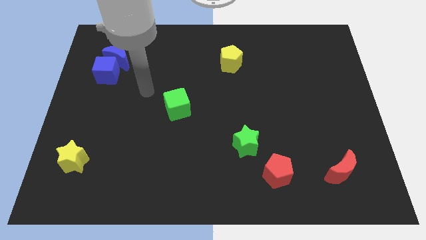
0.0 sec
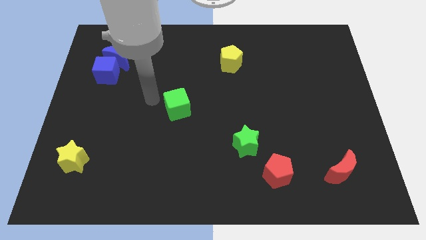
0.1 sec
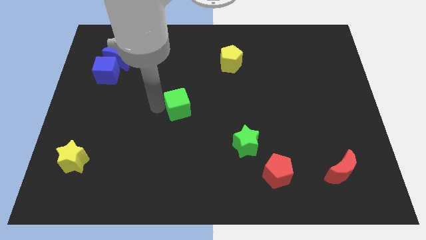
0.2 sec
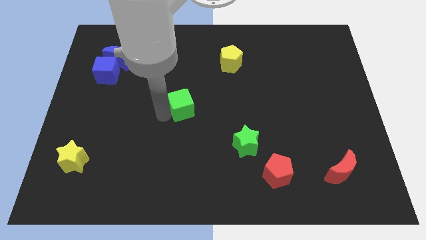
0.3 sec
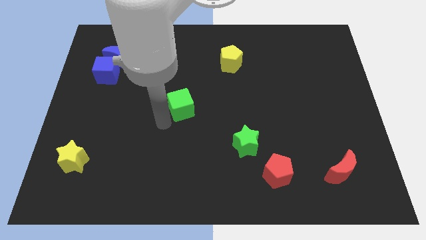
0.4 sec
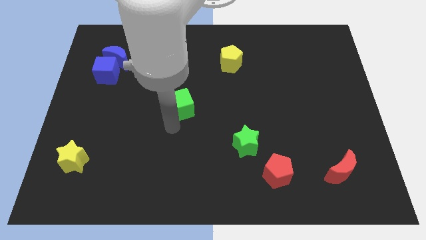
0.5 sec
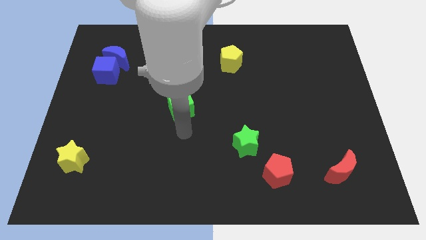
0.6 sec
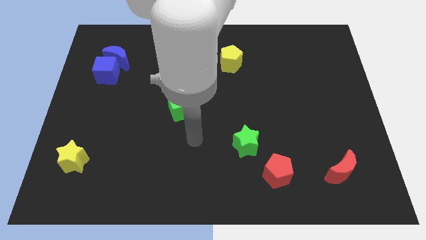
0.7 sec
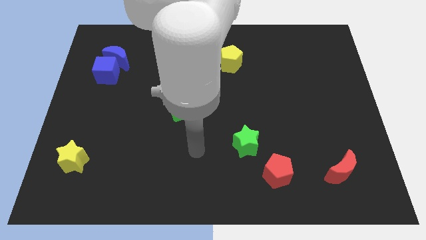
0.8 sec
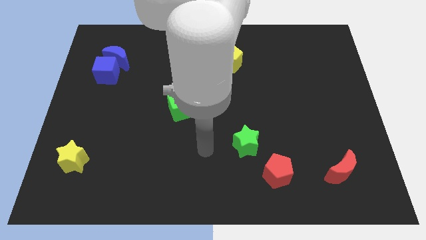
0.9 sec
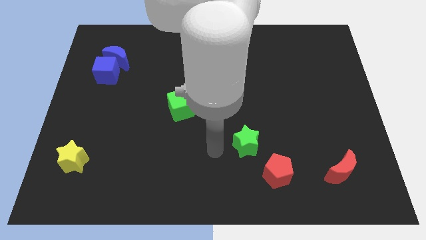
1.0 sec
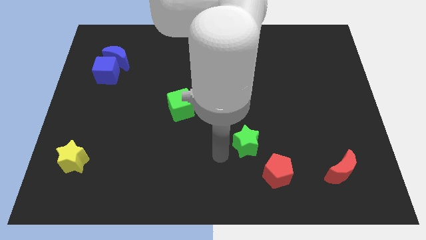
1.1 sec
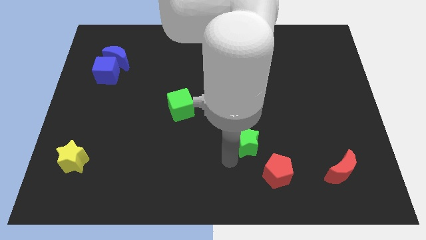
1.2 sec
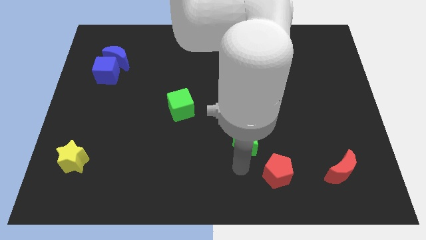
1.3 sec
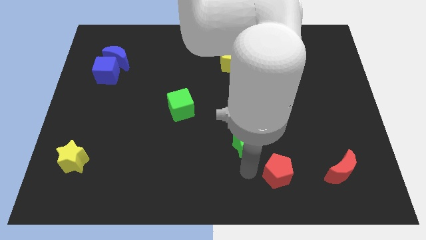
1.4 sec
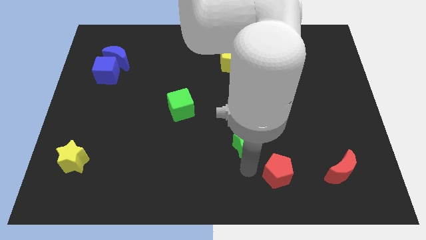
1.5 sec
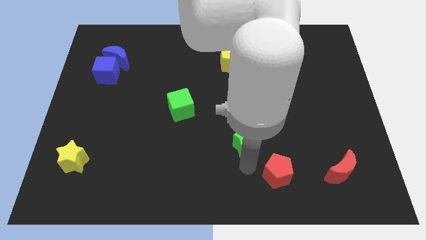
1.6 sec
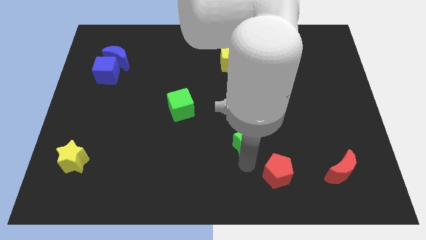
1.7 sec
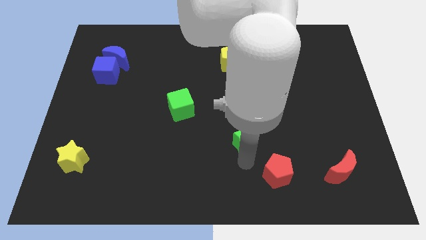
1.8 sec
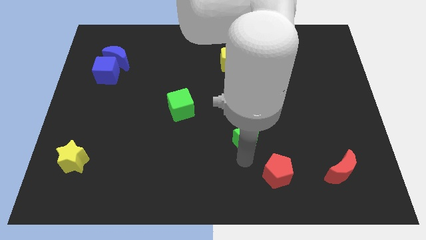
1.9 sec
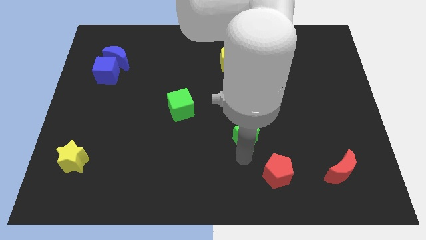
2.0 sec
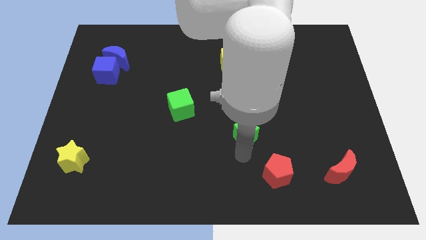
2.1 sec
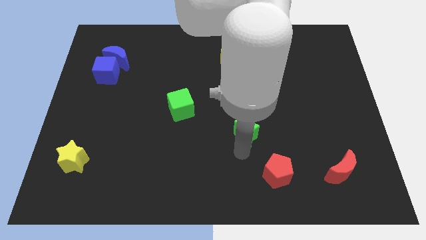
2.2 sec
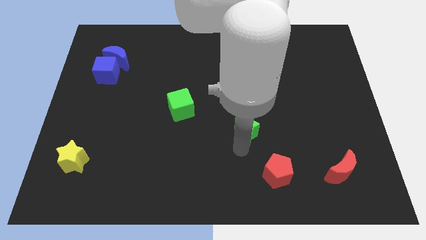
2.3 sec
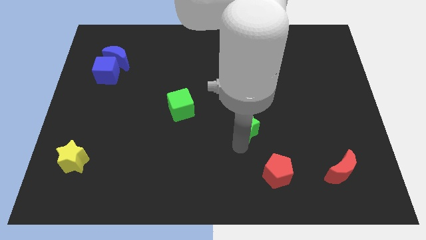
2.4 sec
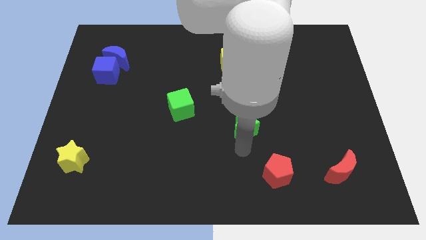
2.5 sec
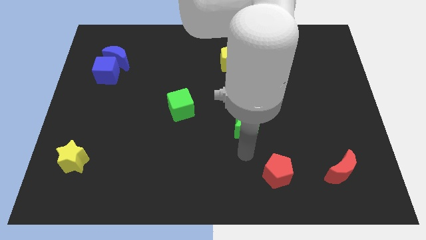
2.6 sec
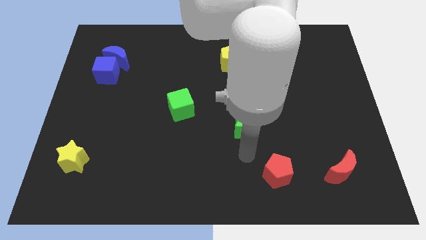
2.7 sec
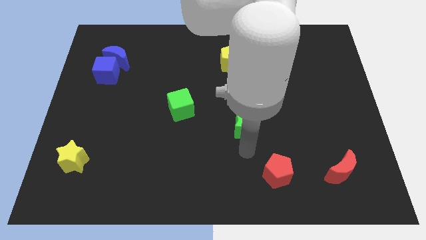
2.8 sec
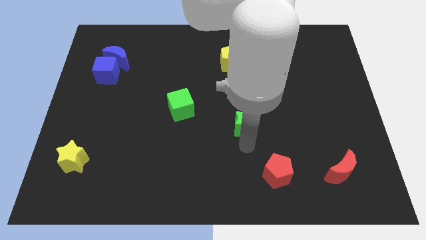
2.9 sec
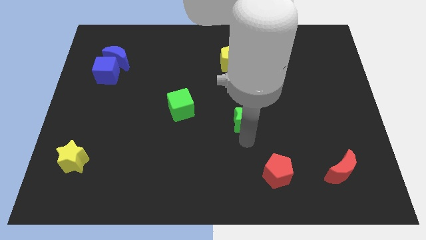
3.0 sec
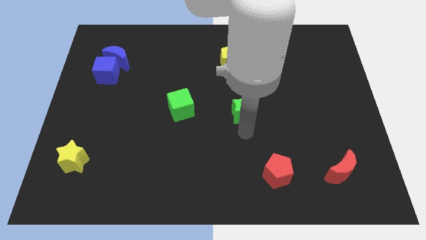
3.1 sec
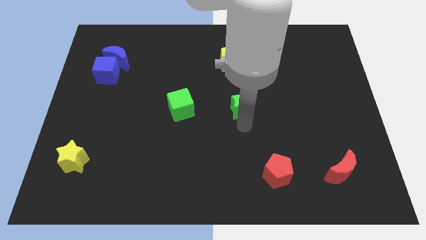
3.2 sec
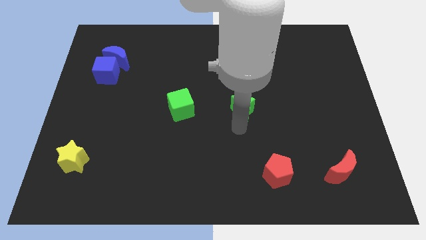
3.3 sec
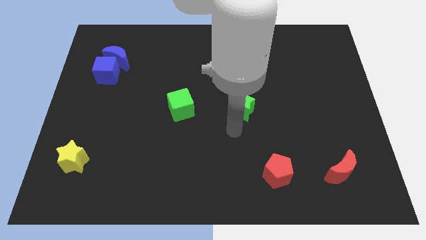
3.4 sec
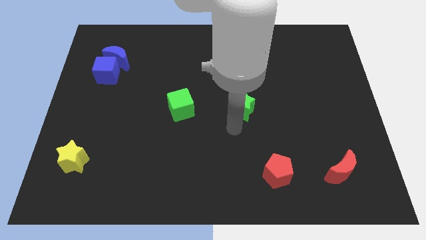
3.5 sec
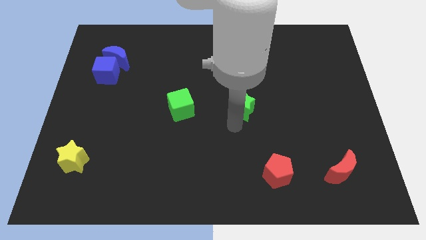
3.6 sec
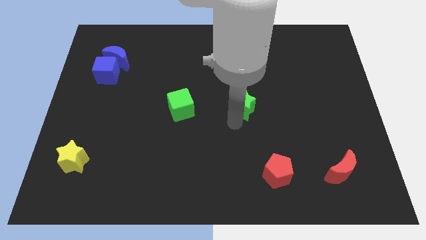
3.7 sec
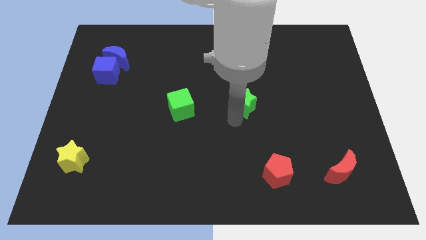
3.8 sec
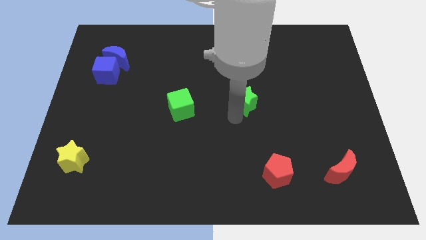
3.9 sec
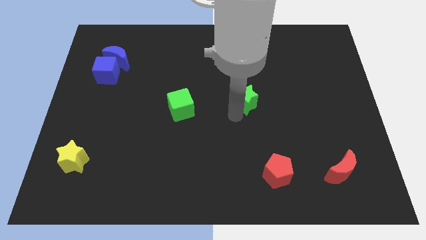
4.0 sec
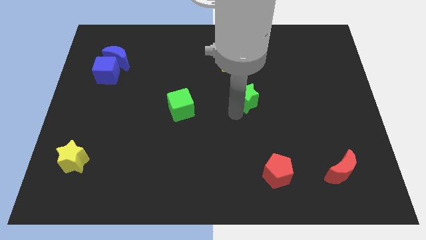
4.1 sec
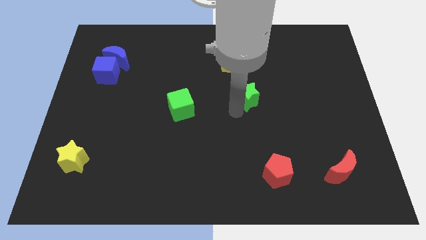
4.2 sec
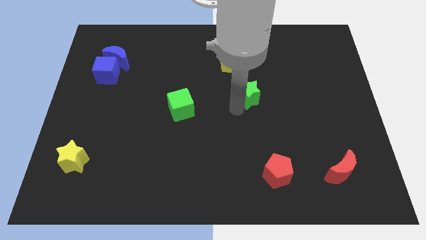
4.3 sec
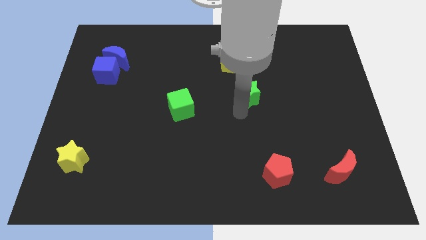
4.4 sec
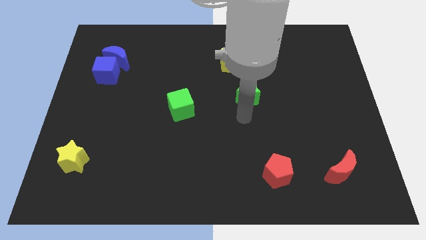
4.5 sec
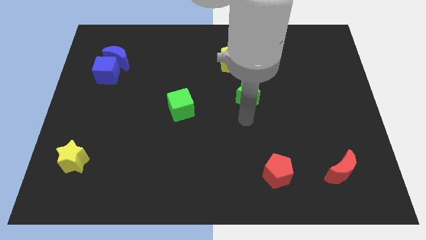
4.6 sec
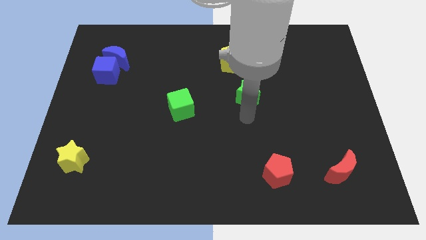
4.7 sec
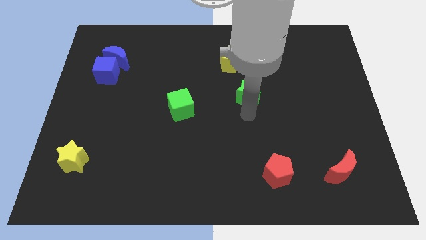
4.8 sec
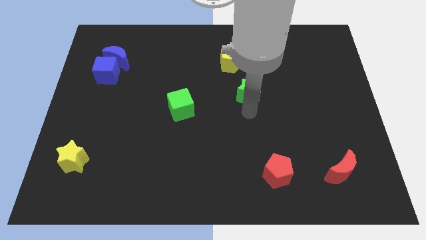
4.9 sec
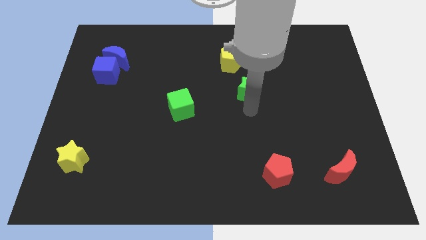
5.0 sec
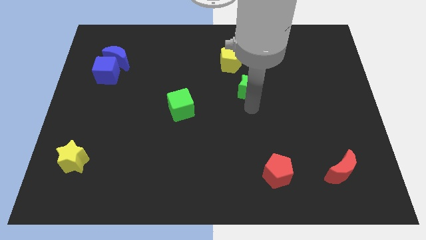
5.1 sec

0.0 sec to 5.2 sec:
slide the green star diagonally down and to the right of the yellow pentagon

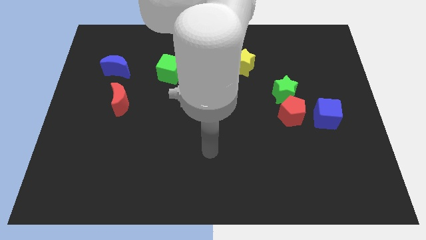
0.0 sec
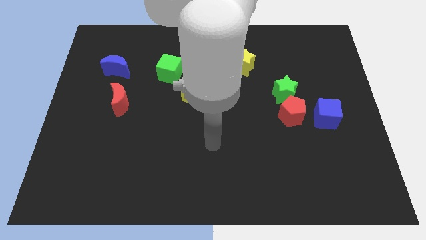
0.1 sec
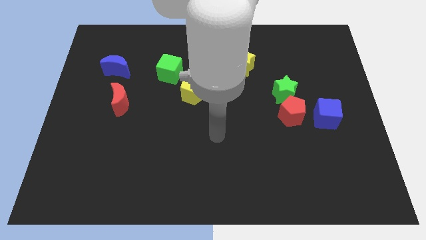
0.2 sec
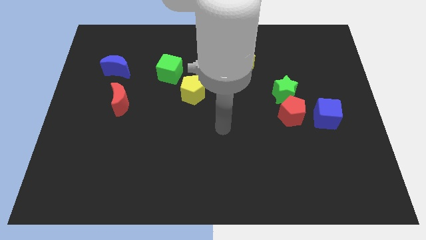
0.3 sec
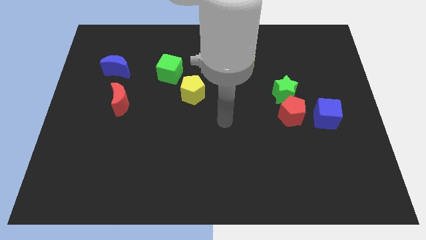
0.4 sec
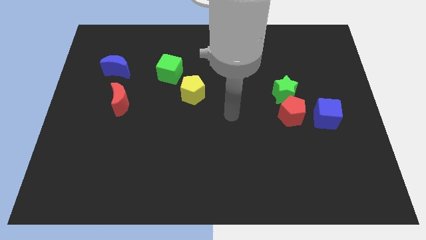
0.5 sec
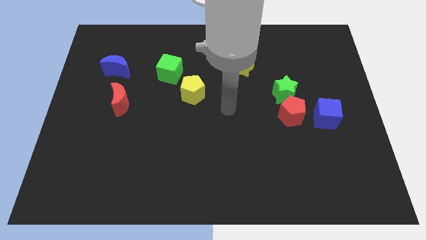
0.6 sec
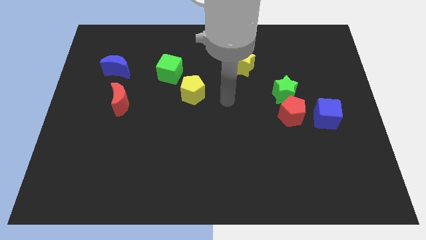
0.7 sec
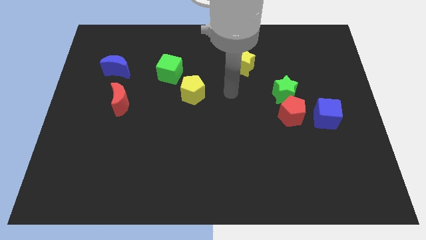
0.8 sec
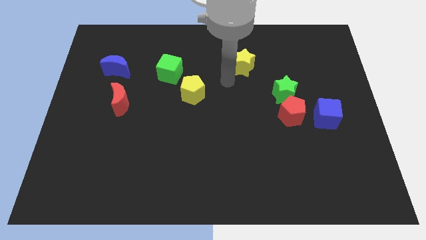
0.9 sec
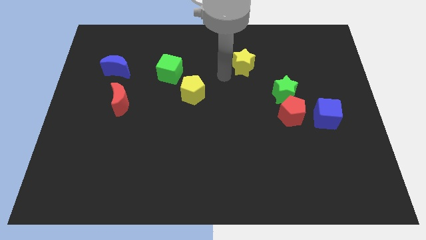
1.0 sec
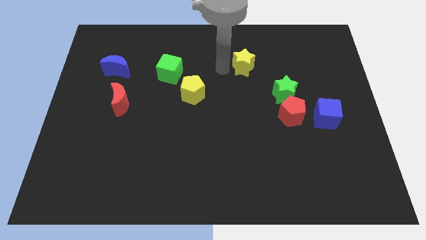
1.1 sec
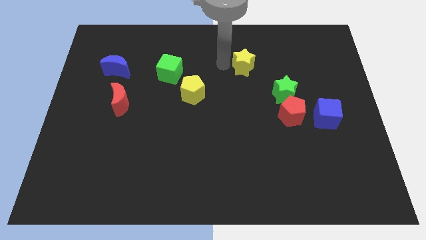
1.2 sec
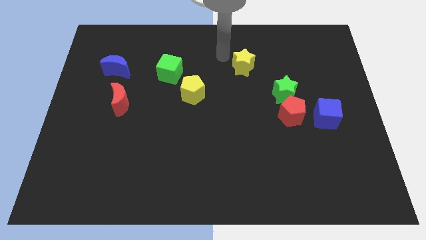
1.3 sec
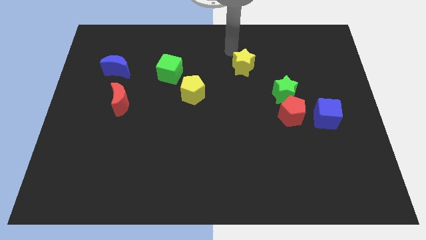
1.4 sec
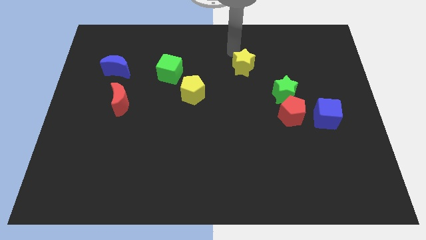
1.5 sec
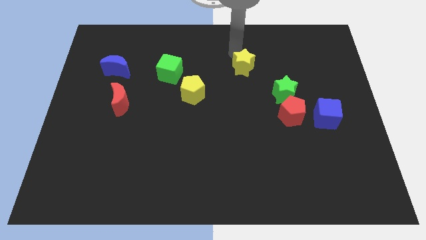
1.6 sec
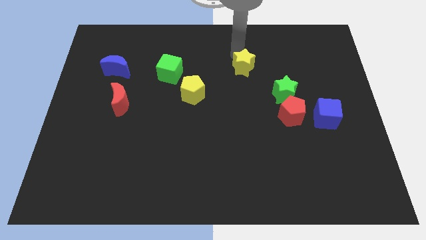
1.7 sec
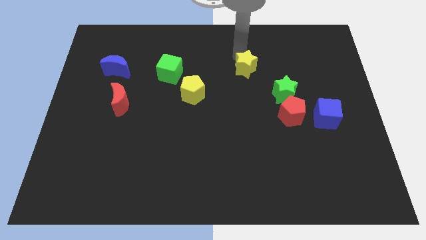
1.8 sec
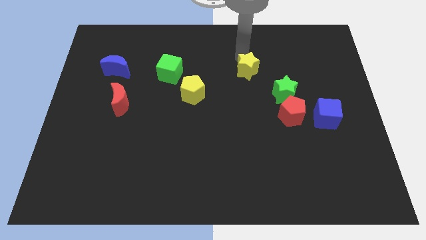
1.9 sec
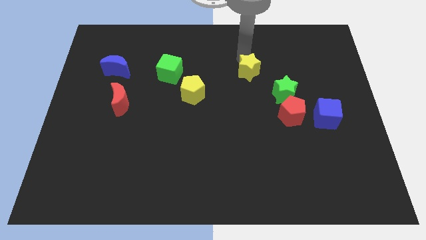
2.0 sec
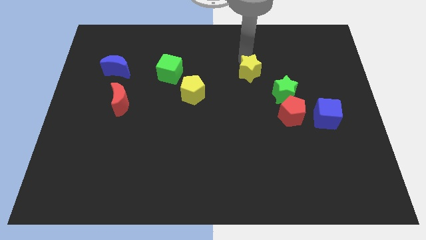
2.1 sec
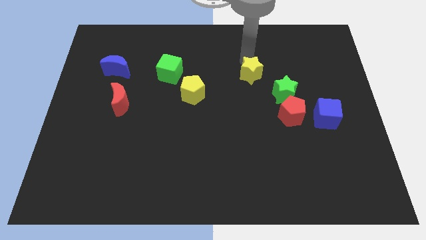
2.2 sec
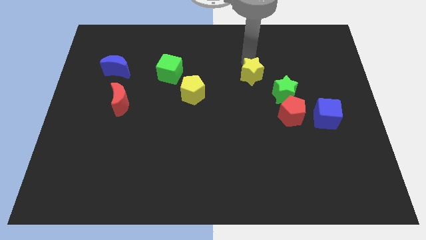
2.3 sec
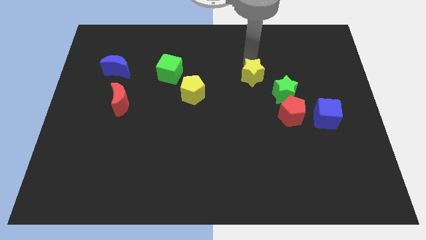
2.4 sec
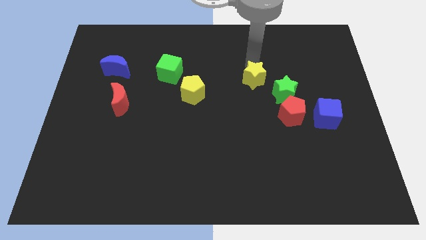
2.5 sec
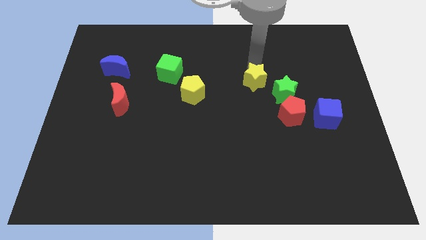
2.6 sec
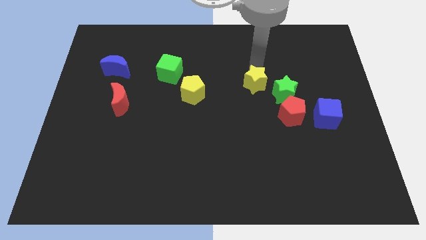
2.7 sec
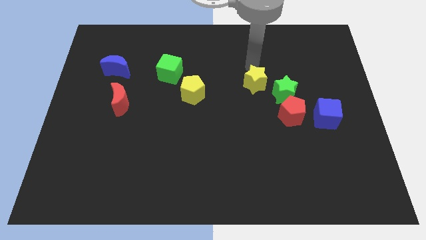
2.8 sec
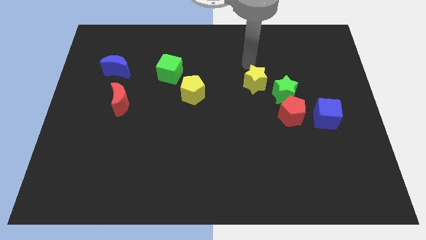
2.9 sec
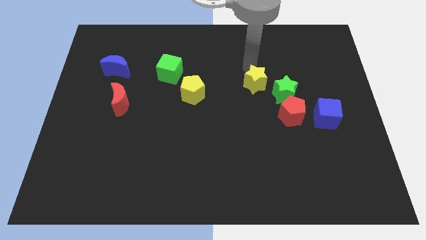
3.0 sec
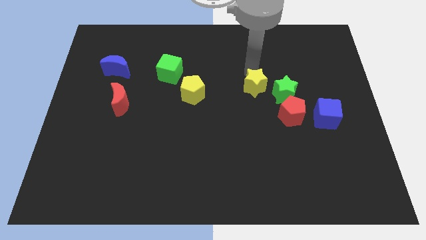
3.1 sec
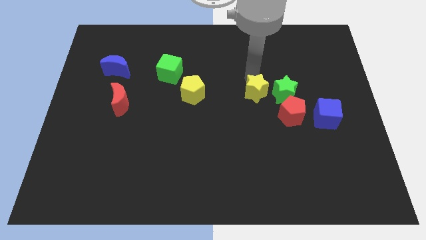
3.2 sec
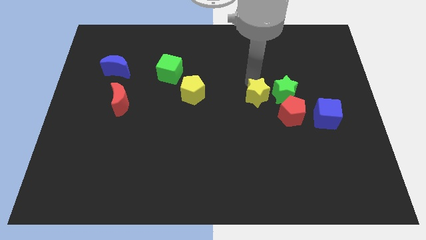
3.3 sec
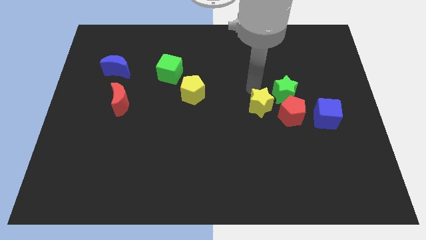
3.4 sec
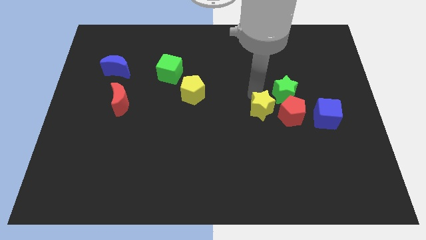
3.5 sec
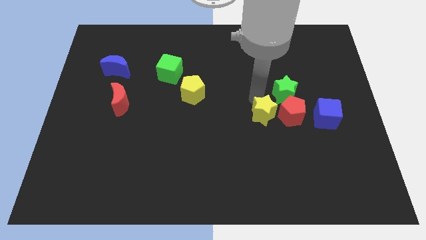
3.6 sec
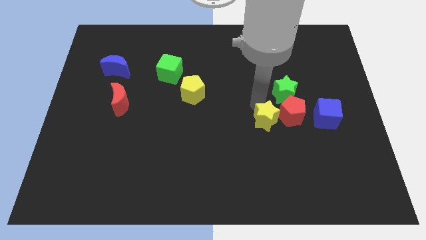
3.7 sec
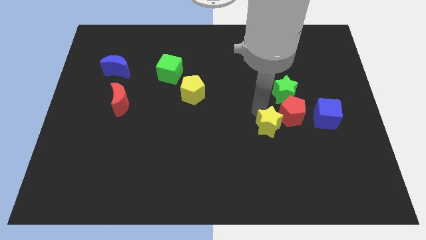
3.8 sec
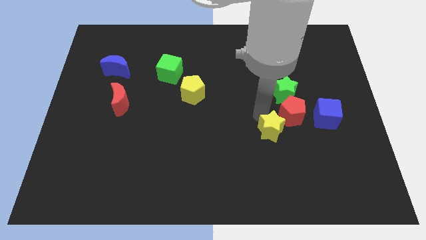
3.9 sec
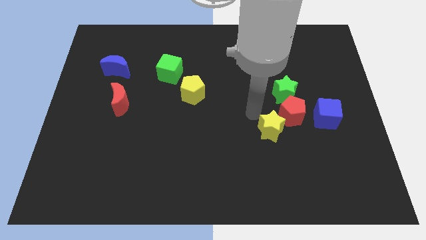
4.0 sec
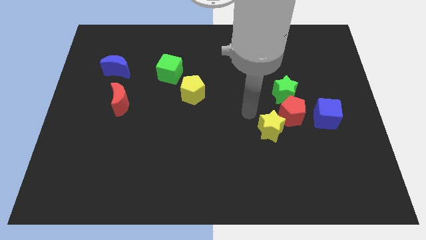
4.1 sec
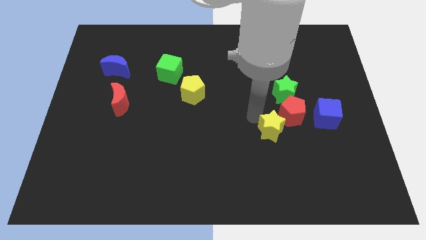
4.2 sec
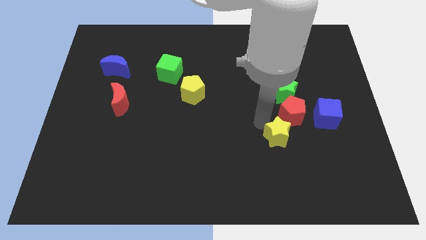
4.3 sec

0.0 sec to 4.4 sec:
push the yellow star to the bottom of the red pentagon
